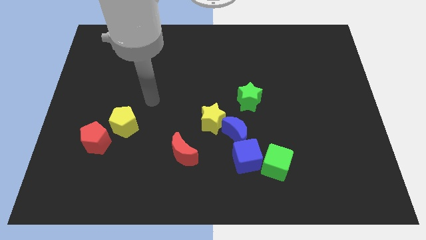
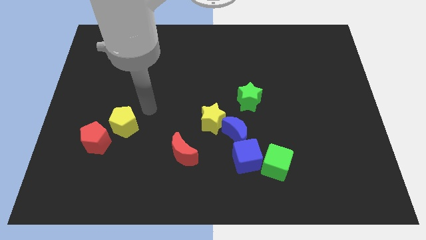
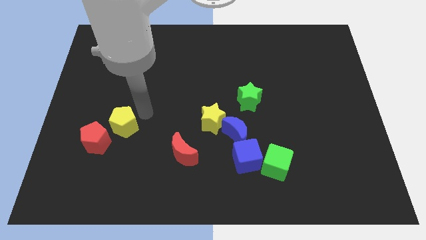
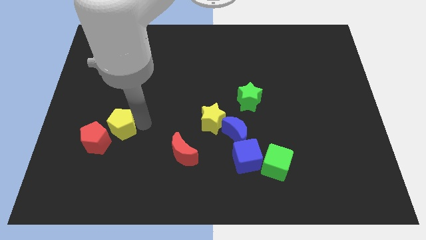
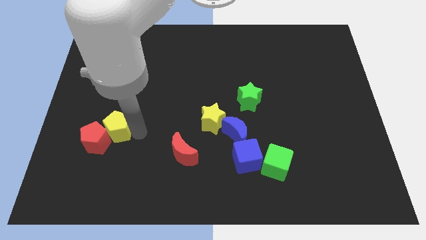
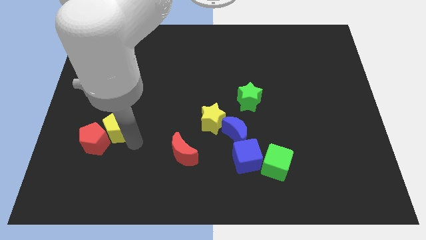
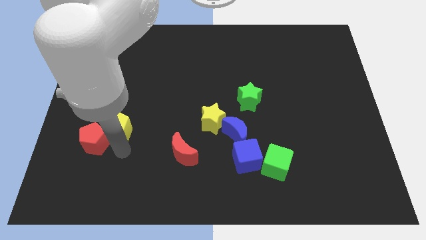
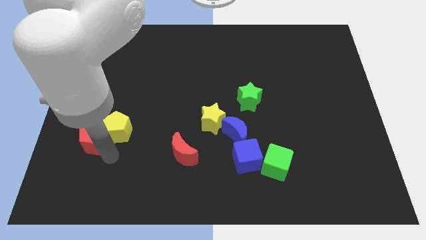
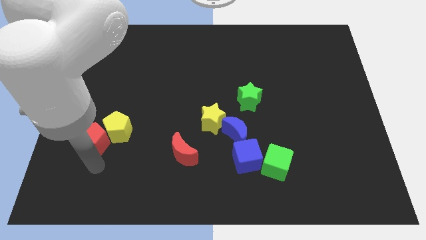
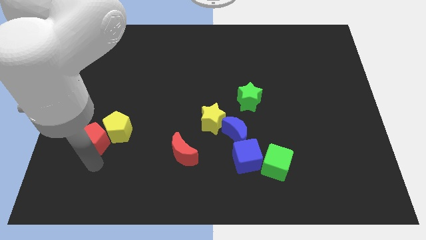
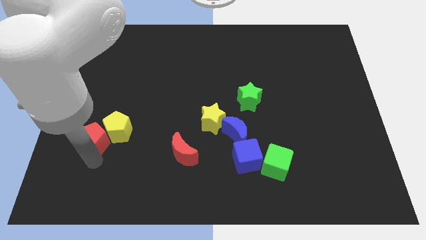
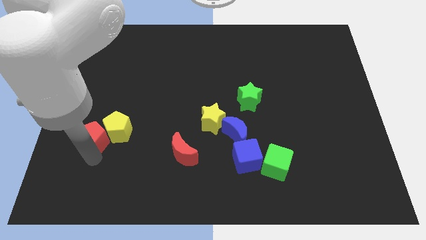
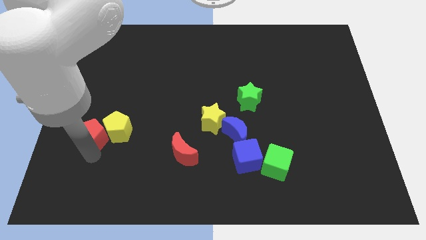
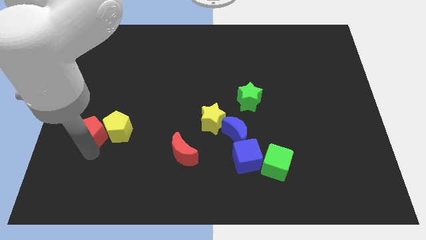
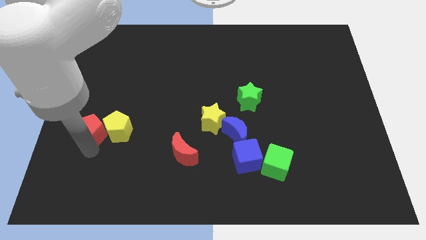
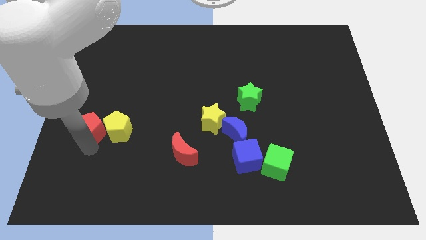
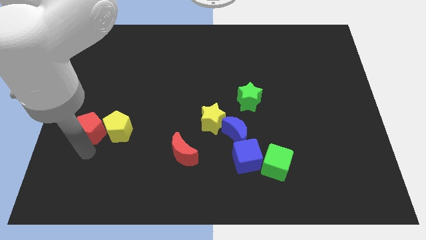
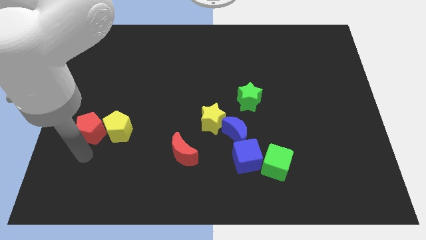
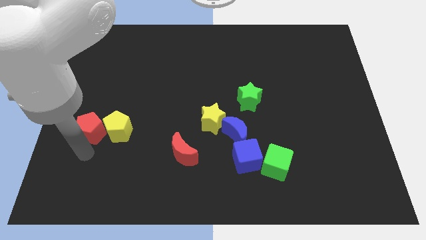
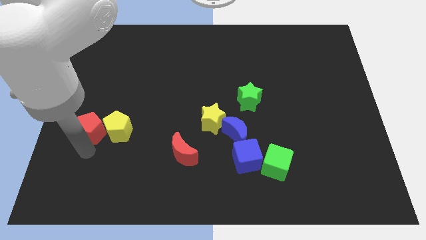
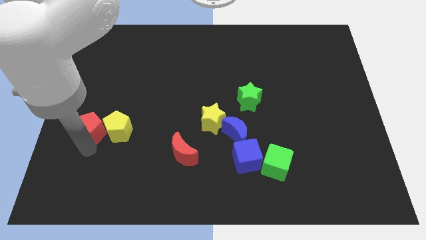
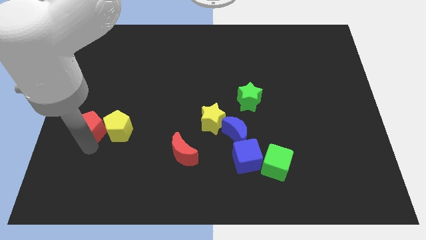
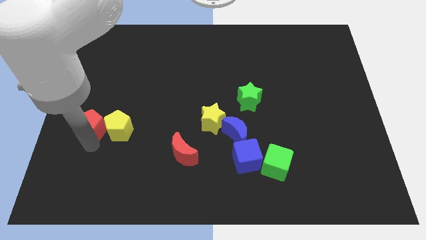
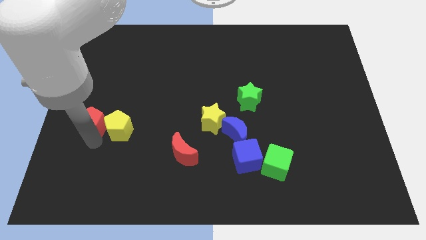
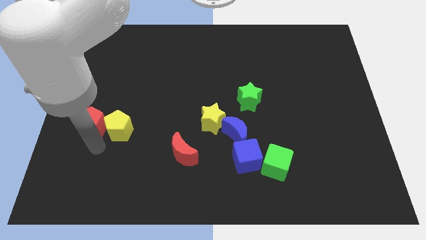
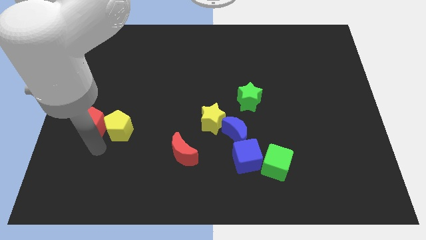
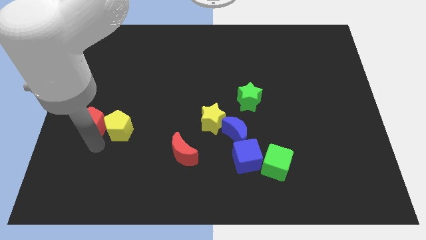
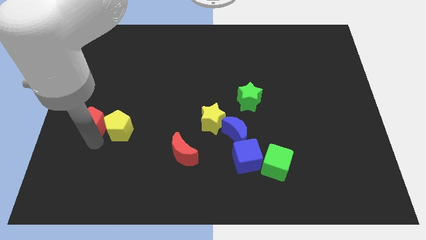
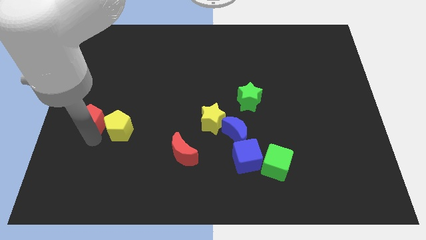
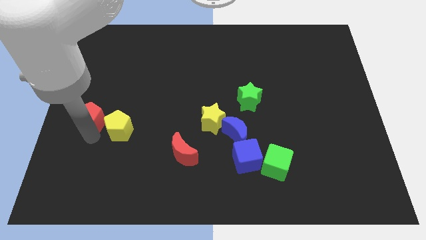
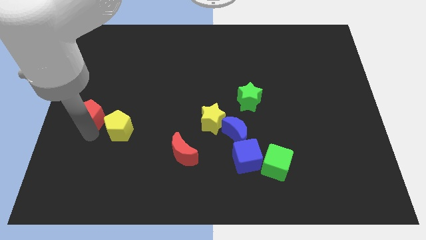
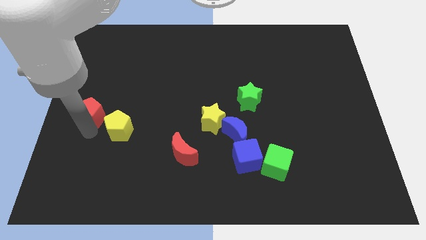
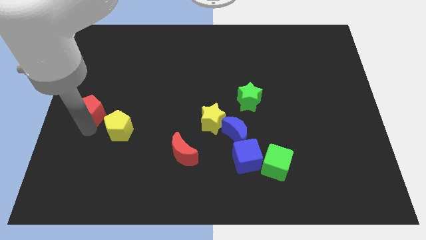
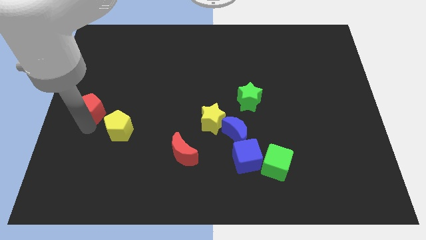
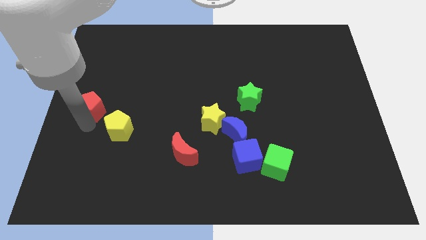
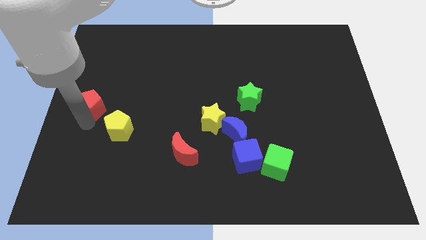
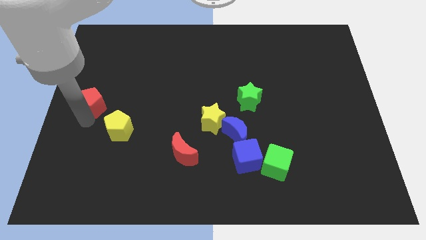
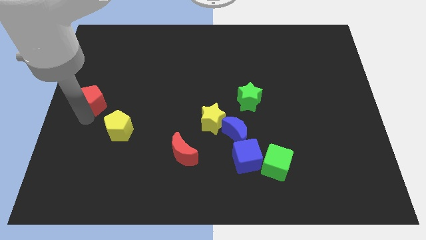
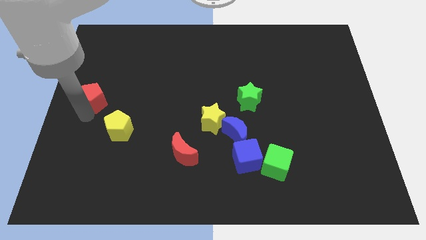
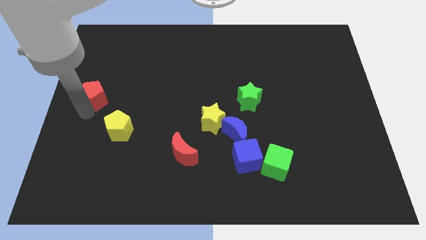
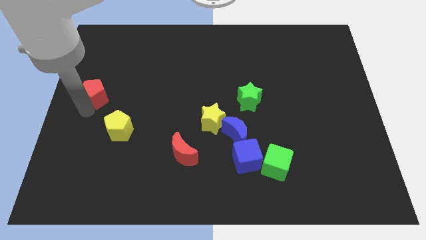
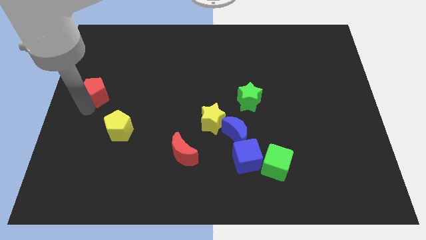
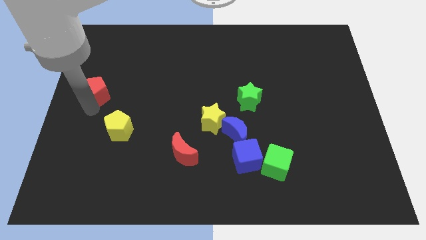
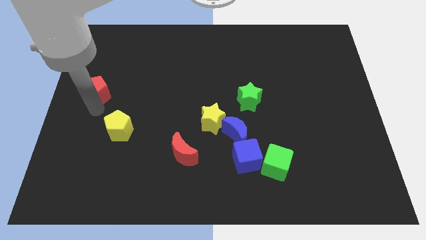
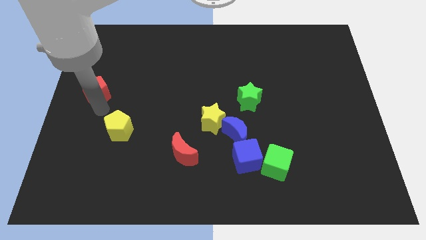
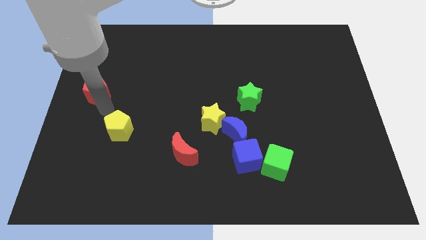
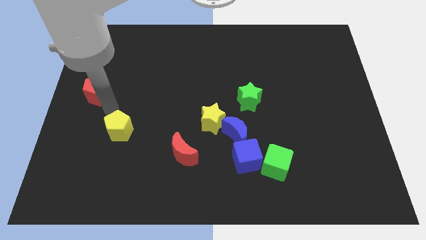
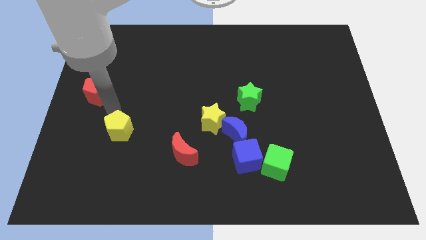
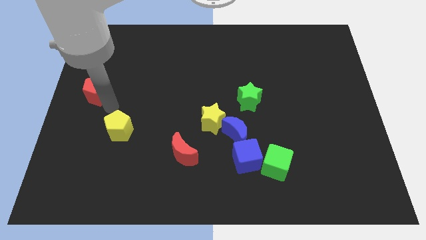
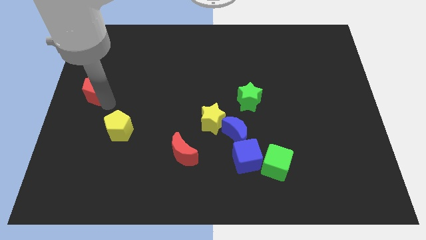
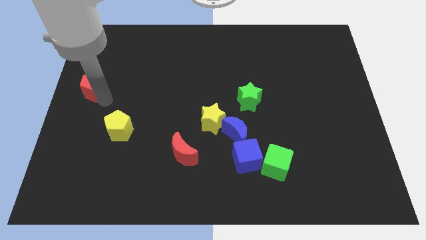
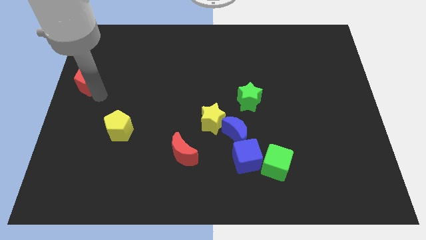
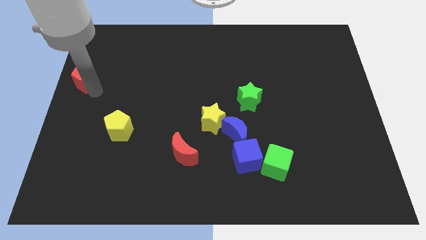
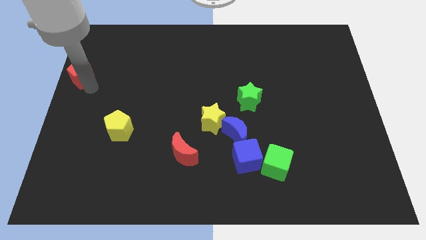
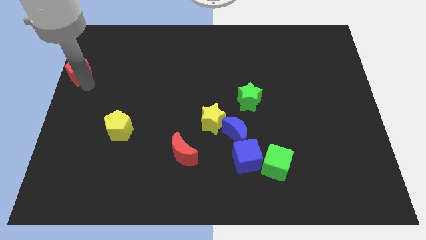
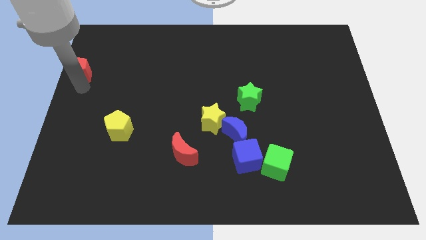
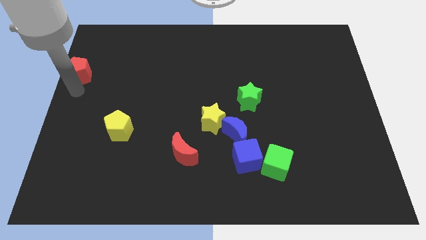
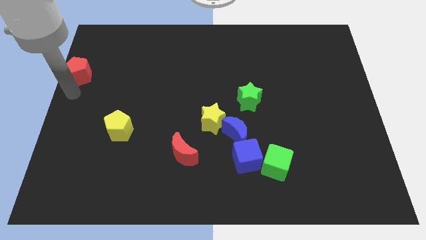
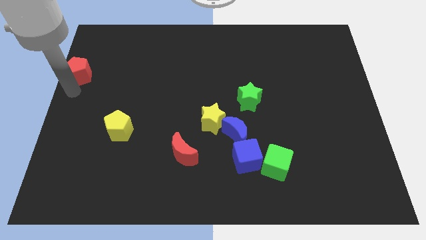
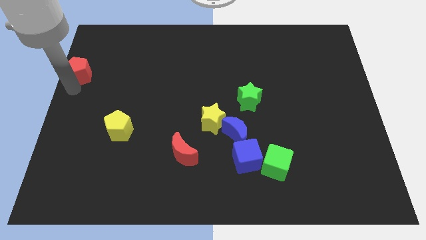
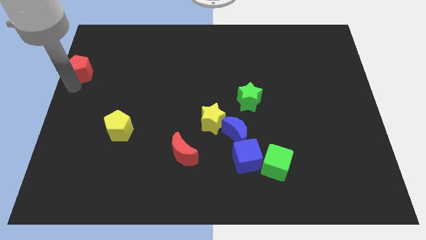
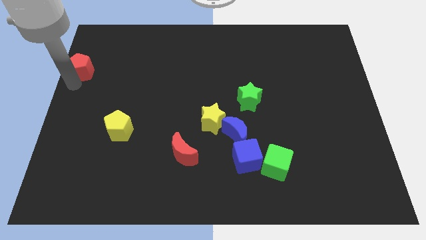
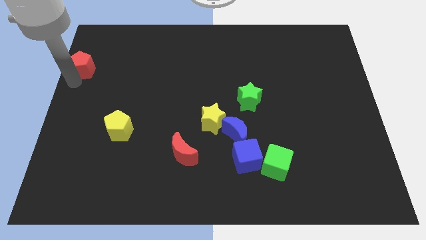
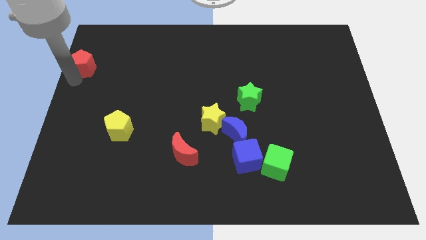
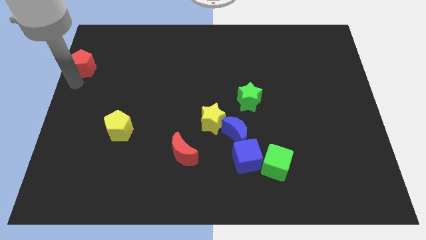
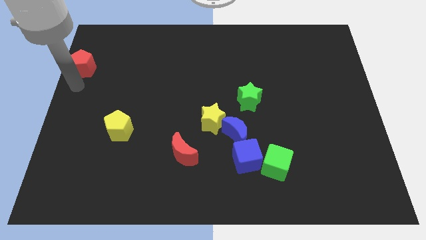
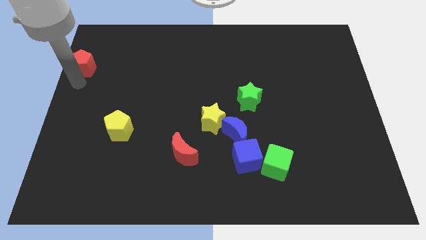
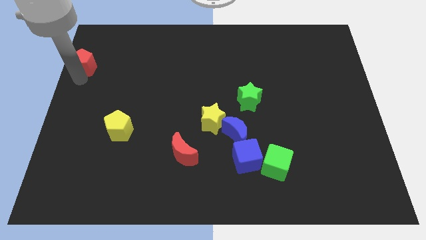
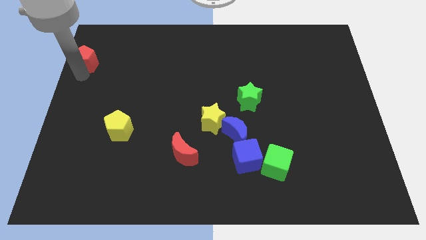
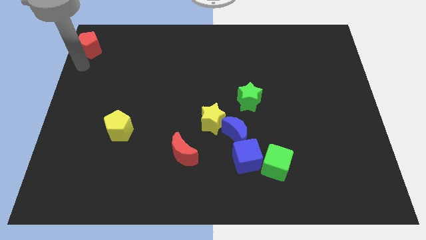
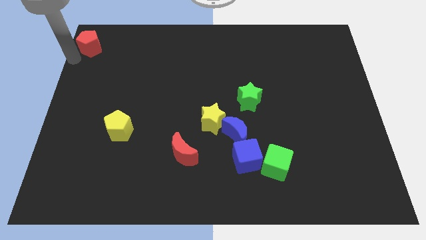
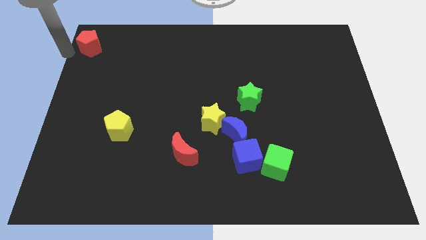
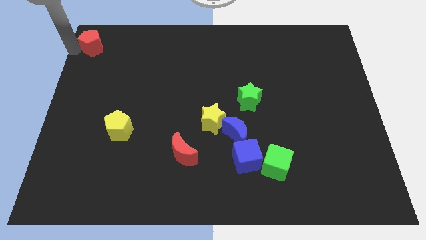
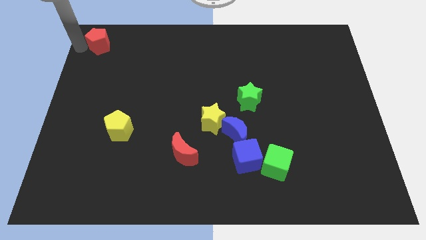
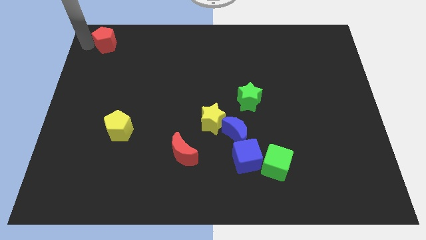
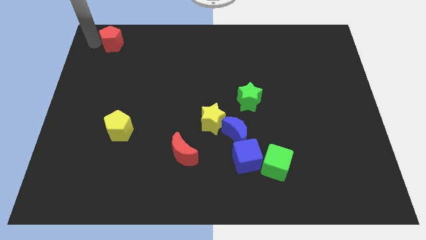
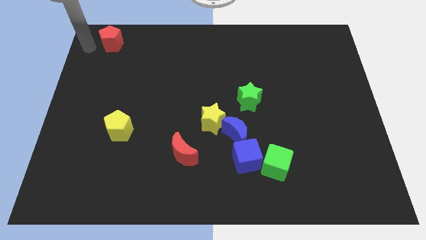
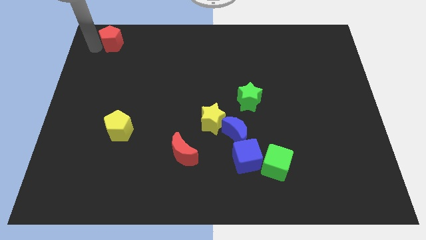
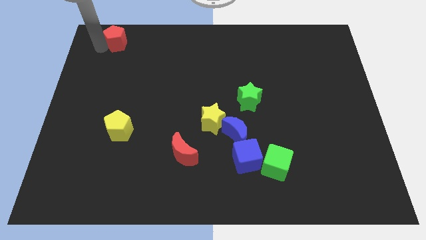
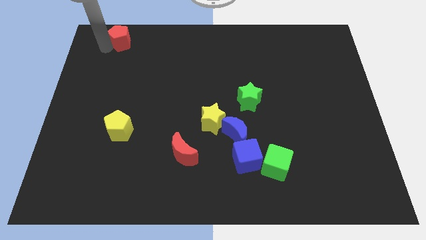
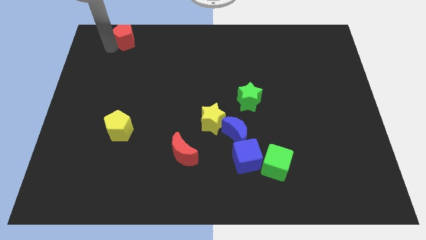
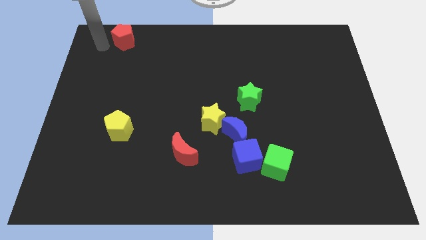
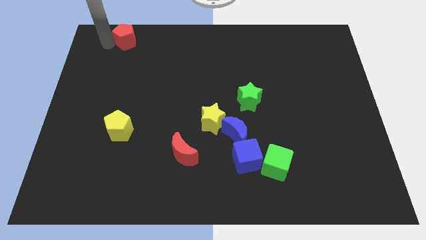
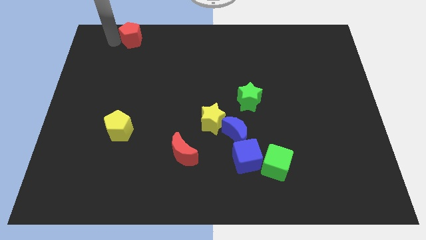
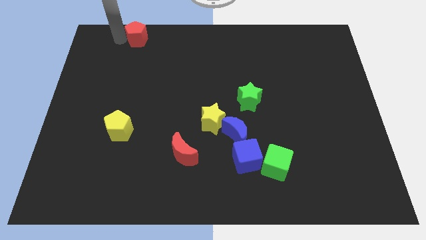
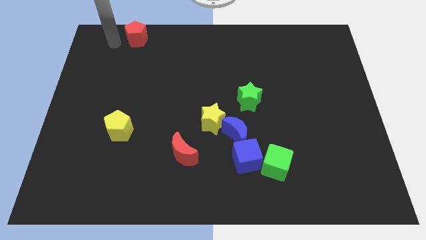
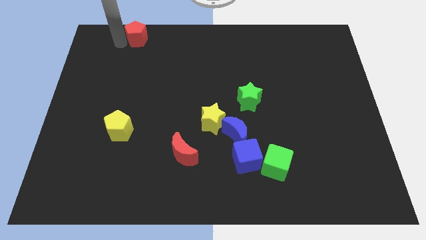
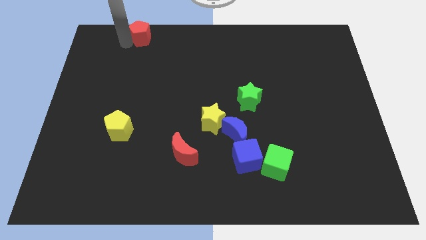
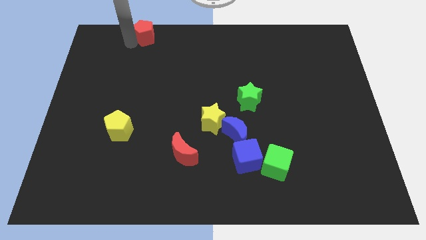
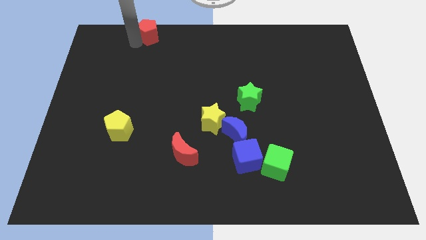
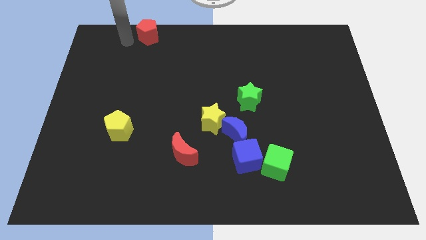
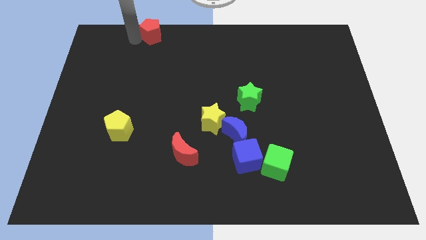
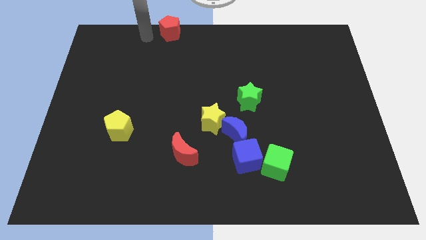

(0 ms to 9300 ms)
move the red pentagon to the top
